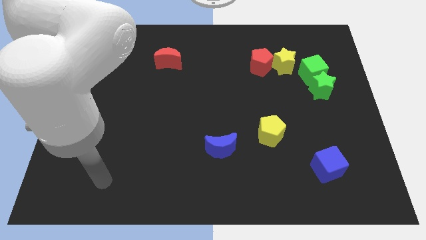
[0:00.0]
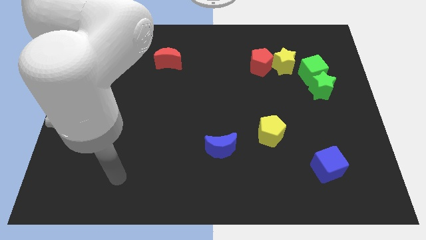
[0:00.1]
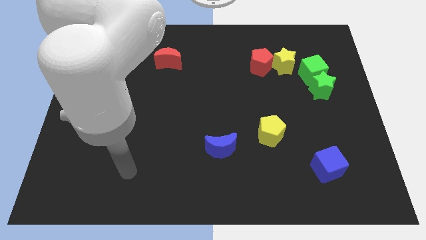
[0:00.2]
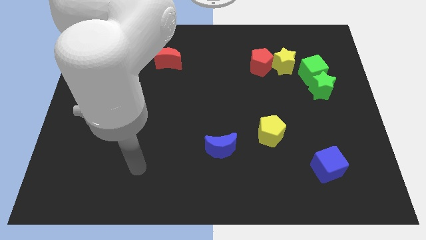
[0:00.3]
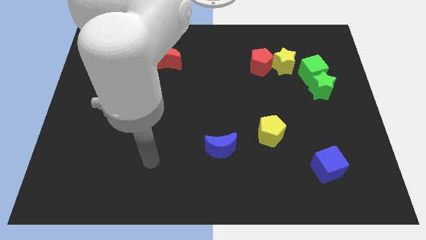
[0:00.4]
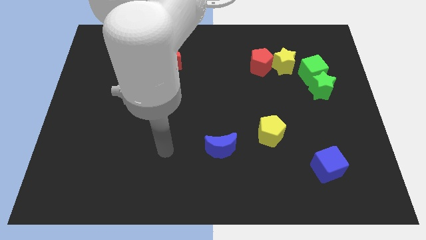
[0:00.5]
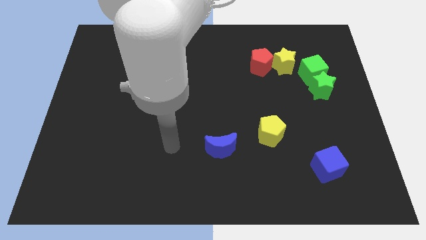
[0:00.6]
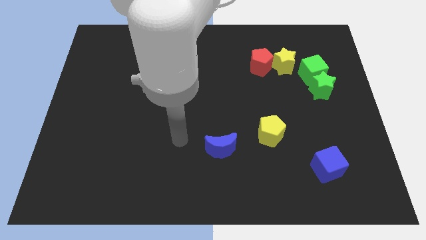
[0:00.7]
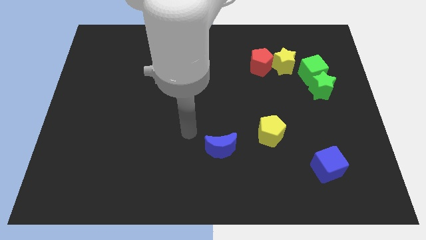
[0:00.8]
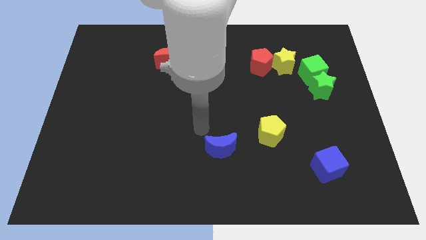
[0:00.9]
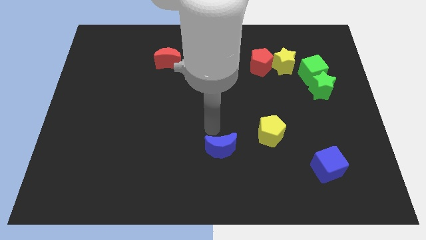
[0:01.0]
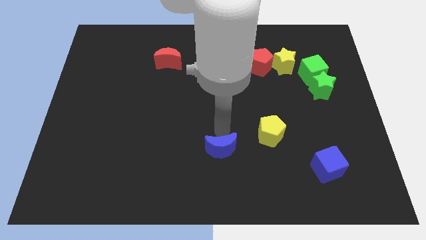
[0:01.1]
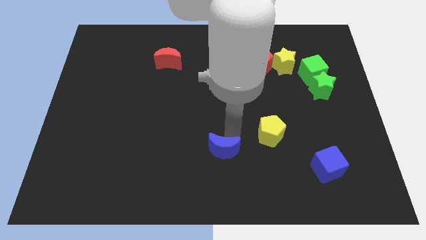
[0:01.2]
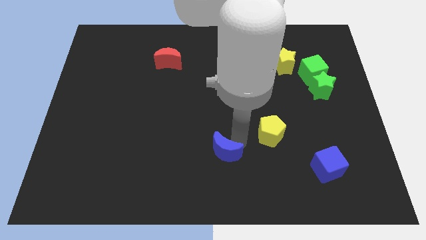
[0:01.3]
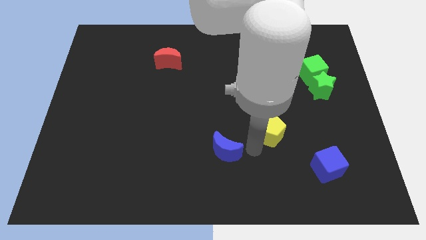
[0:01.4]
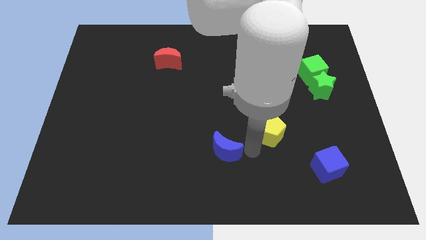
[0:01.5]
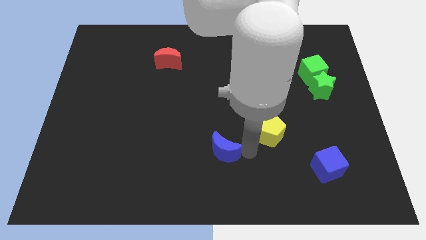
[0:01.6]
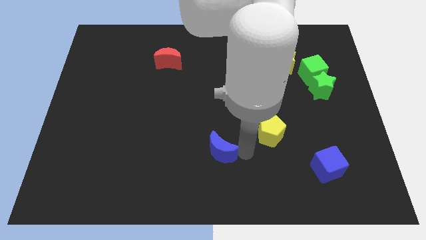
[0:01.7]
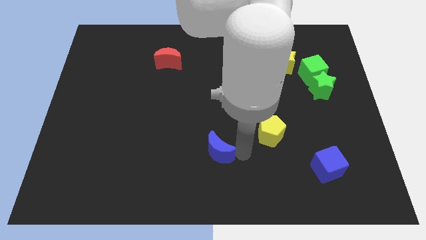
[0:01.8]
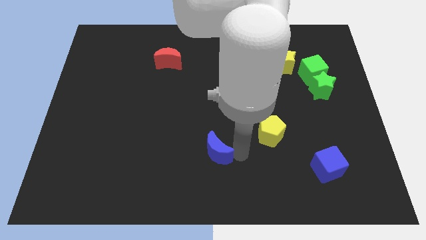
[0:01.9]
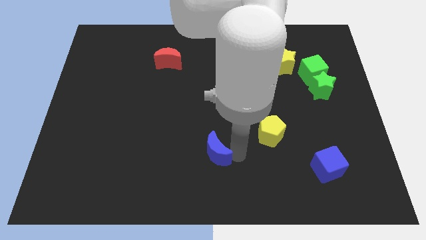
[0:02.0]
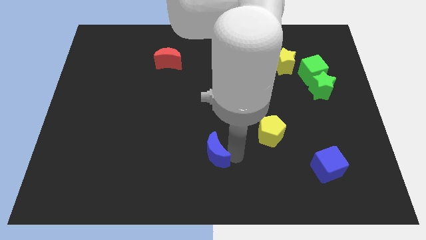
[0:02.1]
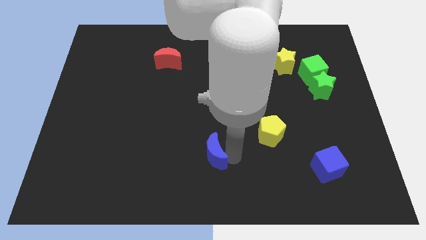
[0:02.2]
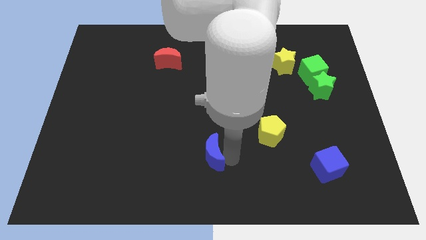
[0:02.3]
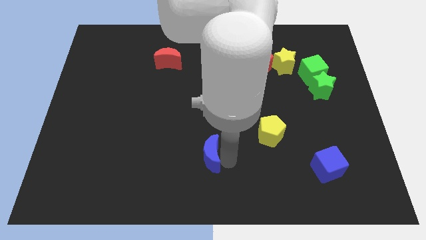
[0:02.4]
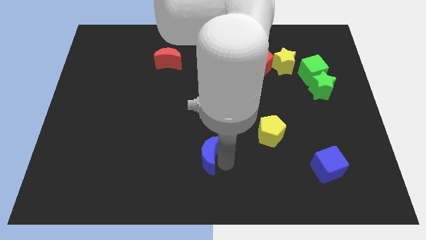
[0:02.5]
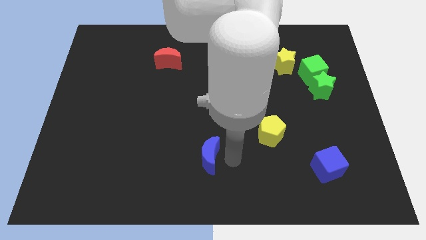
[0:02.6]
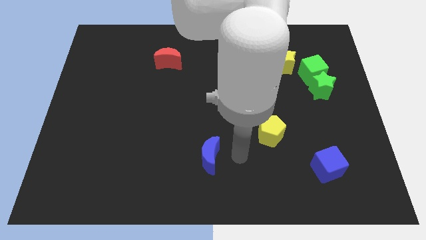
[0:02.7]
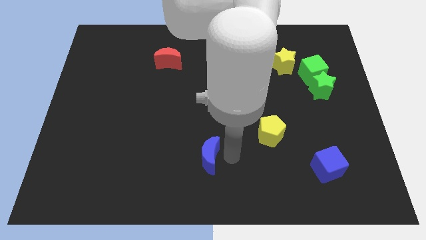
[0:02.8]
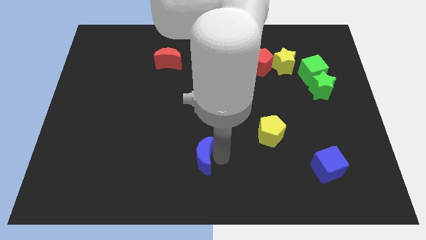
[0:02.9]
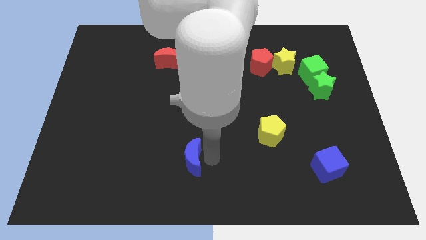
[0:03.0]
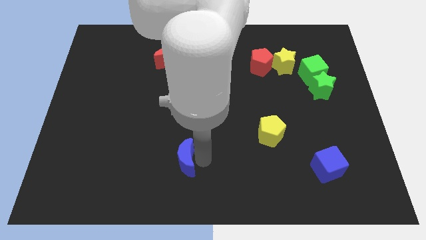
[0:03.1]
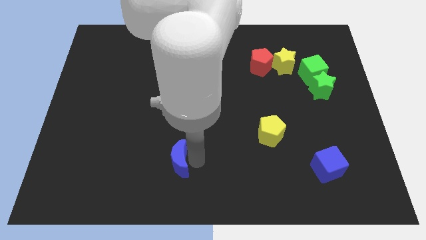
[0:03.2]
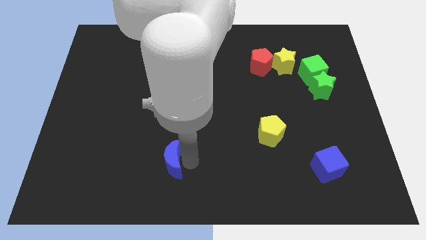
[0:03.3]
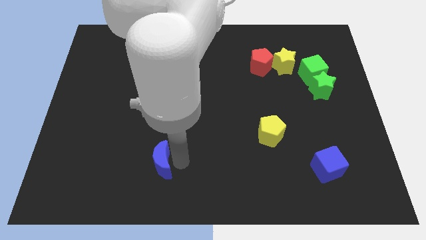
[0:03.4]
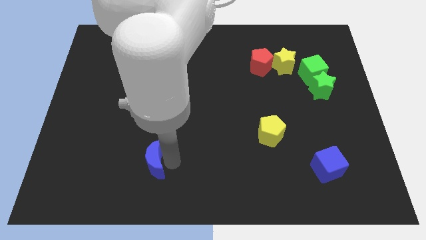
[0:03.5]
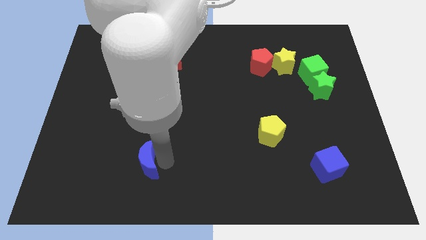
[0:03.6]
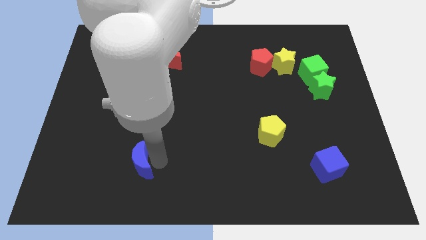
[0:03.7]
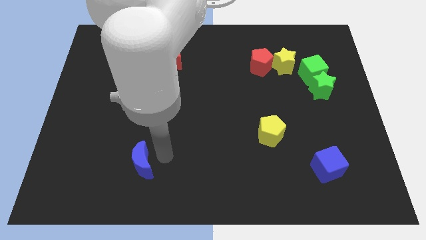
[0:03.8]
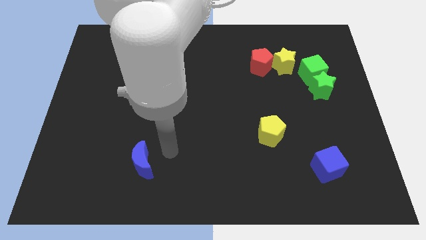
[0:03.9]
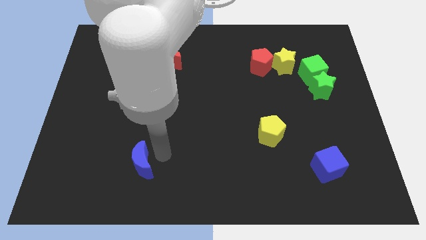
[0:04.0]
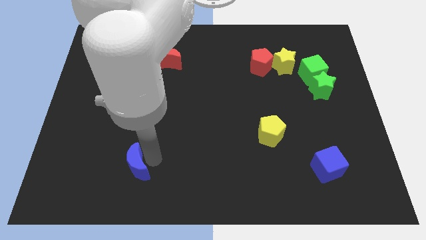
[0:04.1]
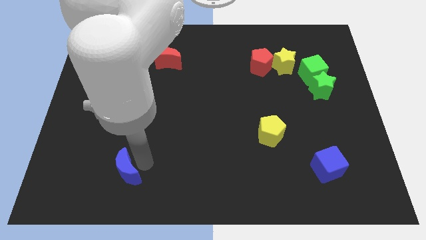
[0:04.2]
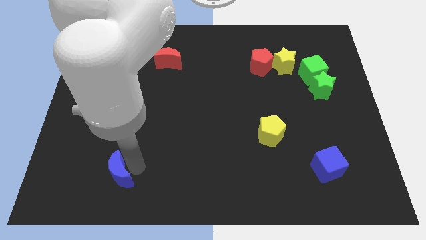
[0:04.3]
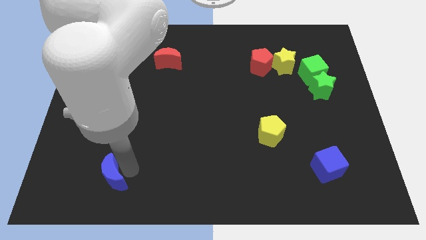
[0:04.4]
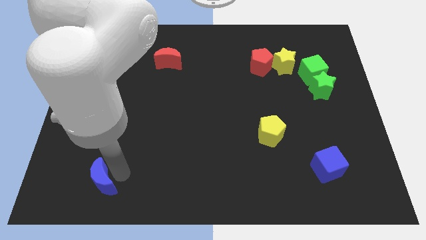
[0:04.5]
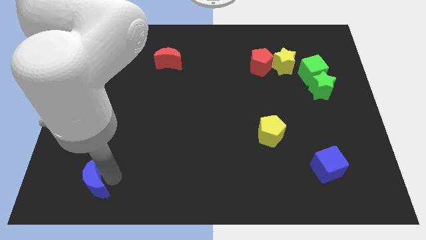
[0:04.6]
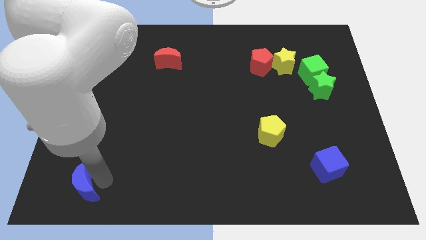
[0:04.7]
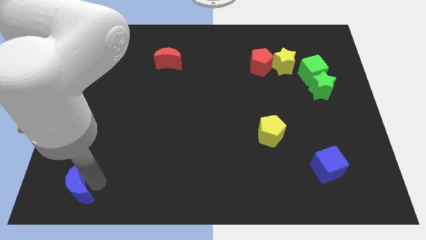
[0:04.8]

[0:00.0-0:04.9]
move the blue moon to the bottom left corner

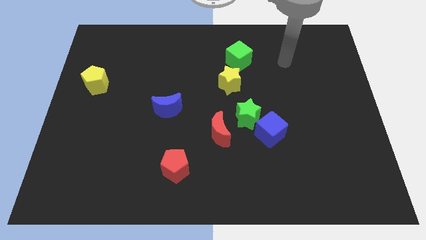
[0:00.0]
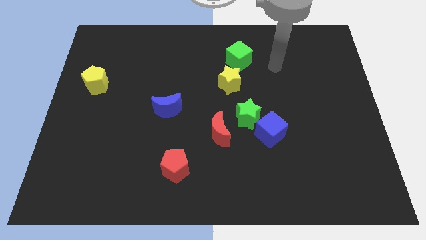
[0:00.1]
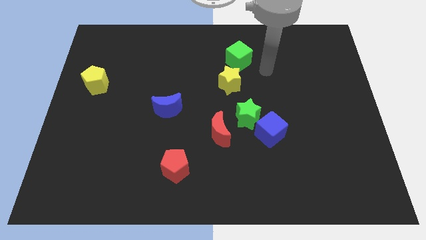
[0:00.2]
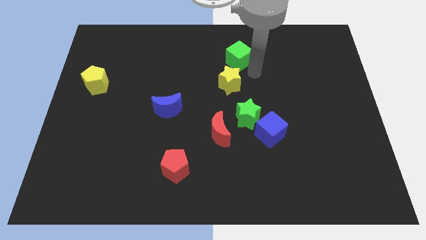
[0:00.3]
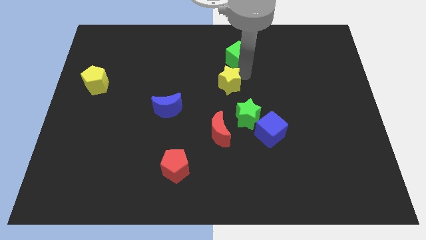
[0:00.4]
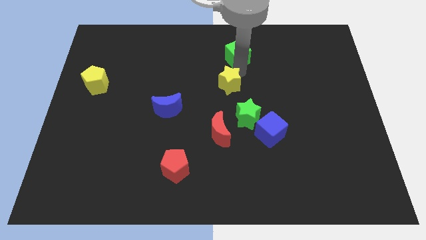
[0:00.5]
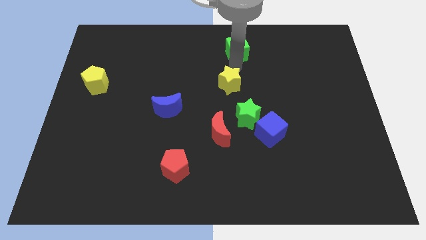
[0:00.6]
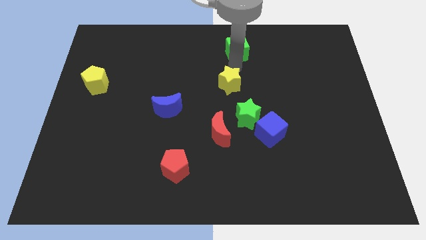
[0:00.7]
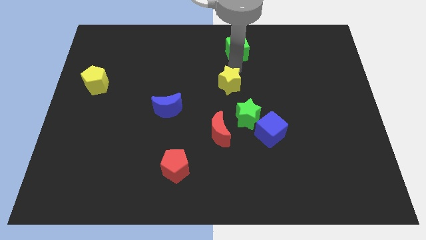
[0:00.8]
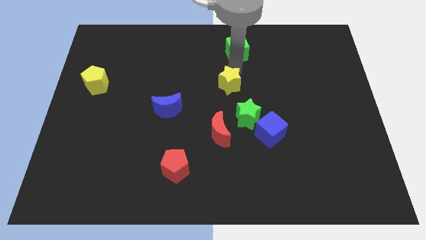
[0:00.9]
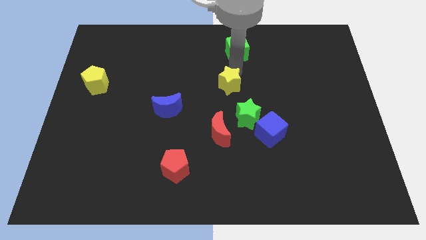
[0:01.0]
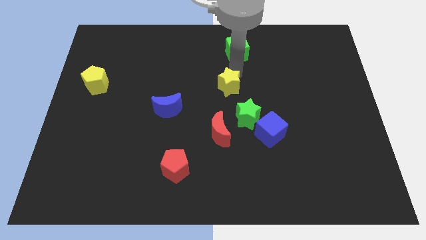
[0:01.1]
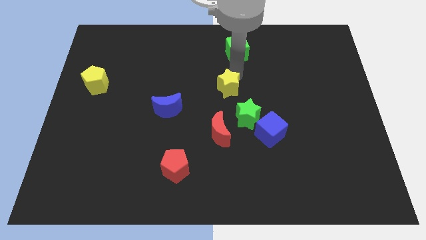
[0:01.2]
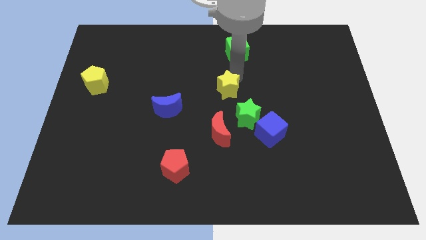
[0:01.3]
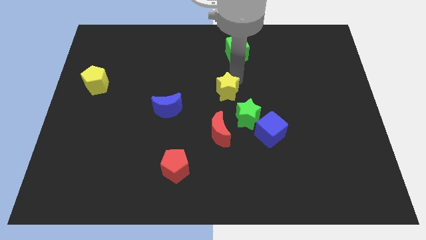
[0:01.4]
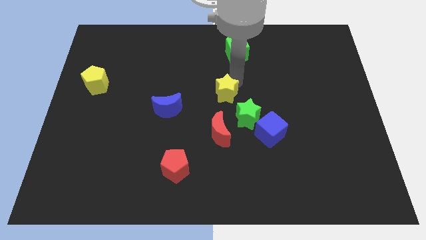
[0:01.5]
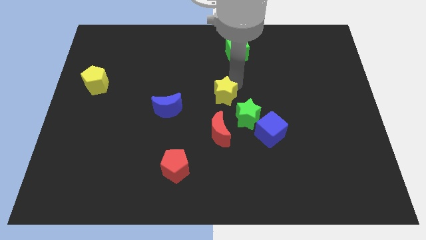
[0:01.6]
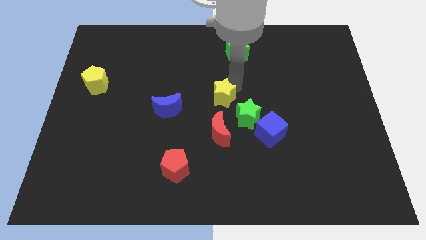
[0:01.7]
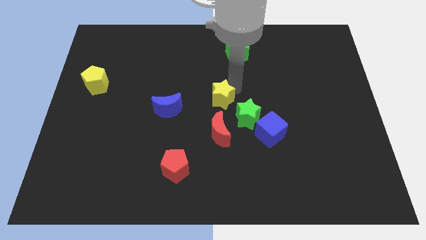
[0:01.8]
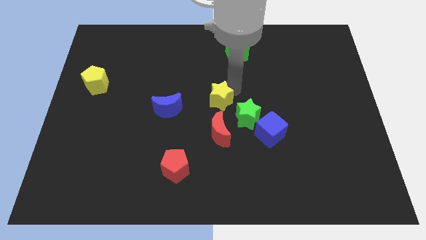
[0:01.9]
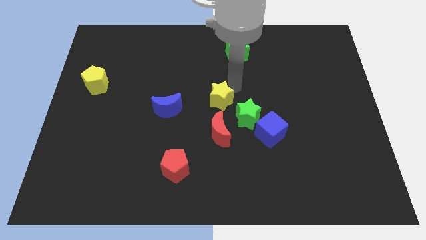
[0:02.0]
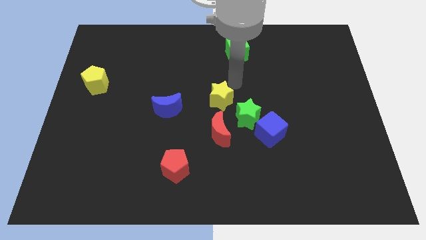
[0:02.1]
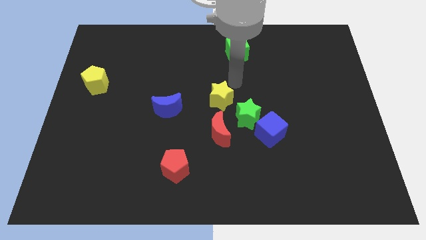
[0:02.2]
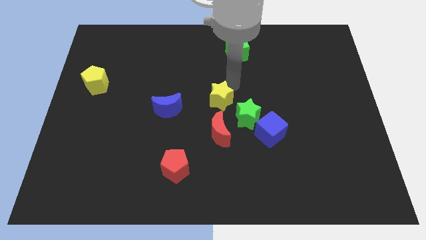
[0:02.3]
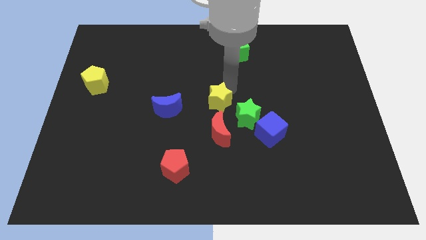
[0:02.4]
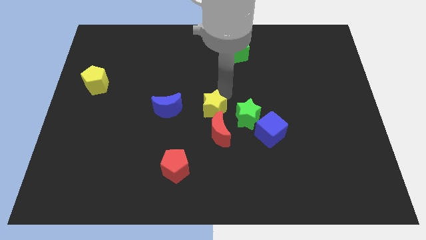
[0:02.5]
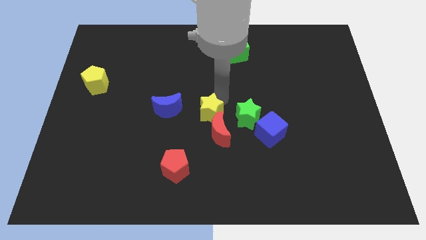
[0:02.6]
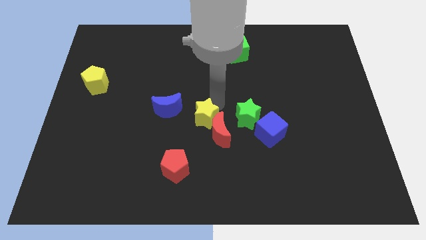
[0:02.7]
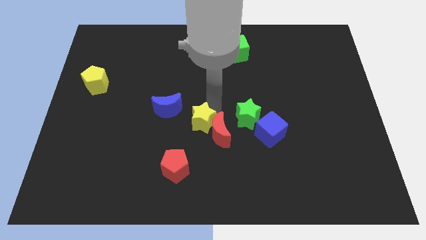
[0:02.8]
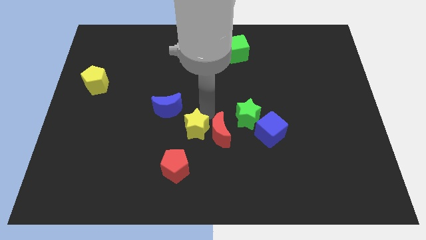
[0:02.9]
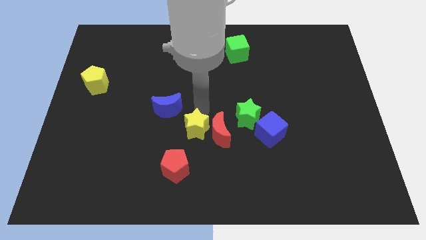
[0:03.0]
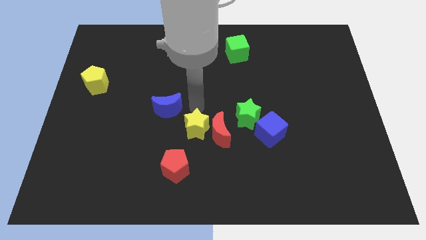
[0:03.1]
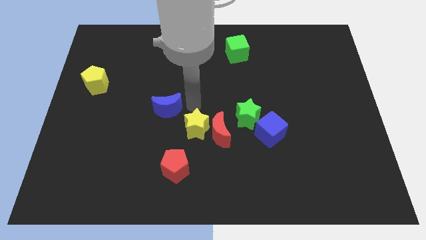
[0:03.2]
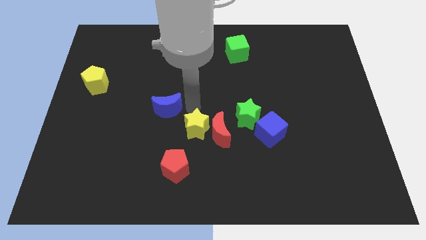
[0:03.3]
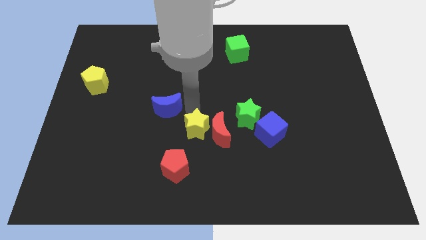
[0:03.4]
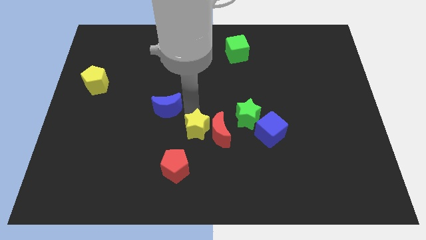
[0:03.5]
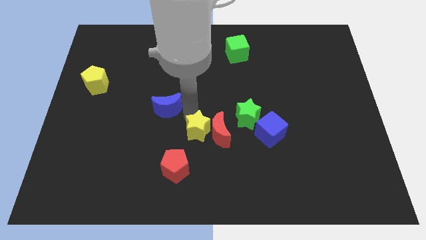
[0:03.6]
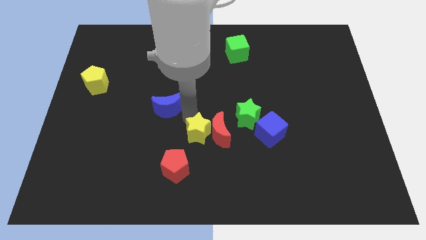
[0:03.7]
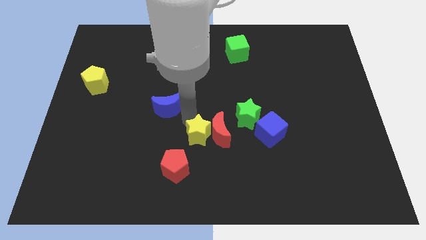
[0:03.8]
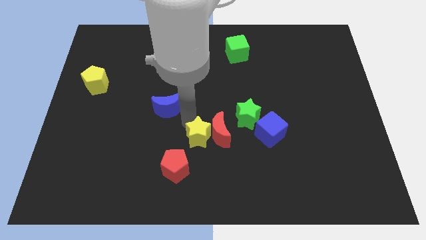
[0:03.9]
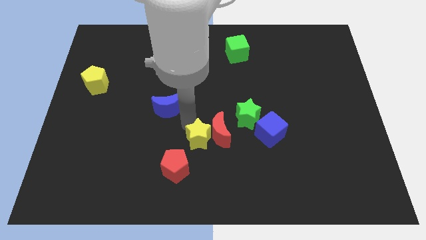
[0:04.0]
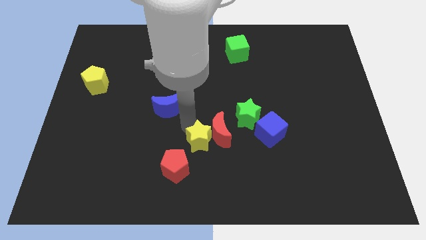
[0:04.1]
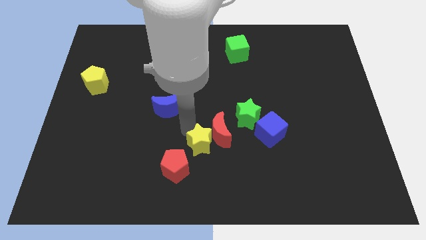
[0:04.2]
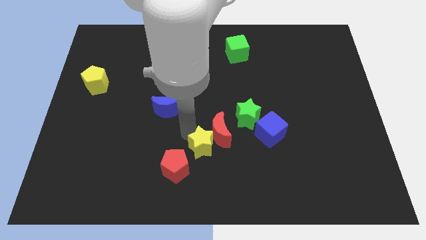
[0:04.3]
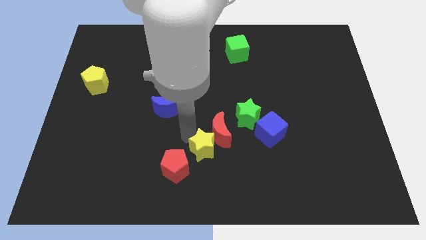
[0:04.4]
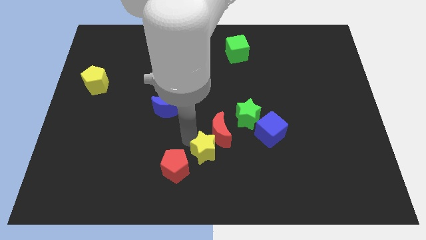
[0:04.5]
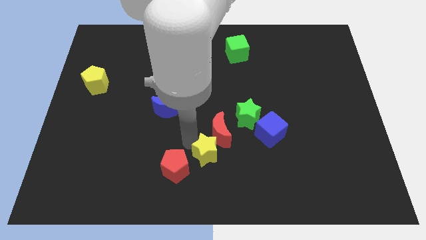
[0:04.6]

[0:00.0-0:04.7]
push the yellow star to the bottom
